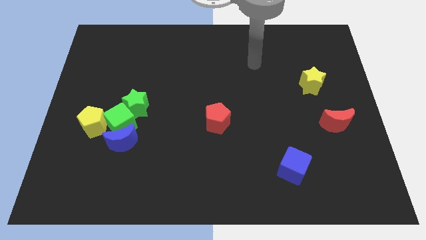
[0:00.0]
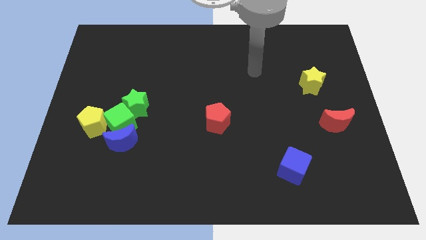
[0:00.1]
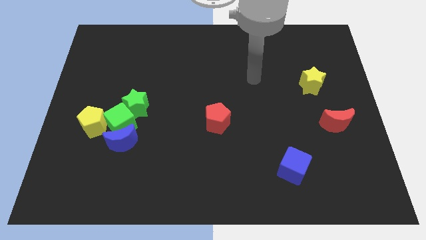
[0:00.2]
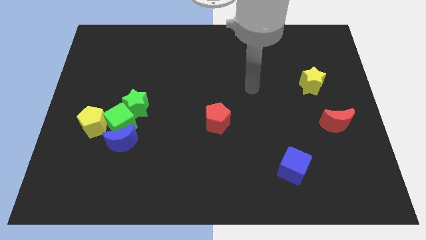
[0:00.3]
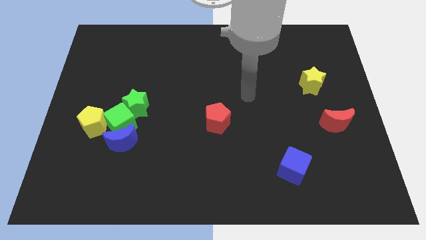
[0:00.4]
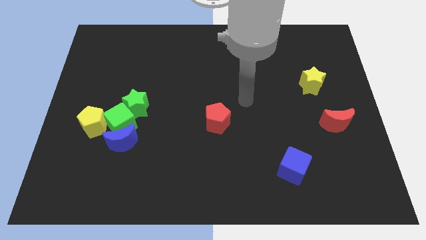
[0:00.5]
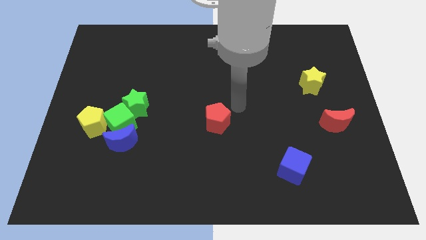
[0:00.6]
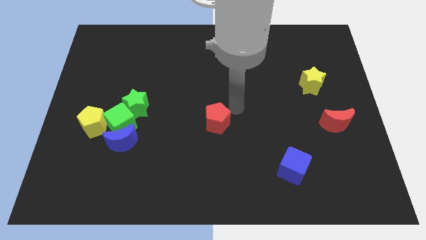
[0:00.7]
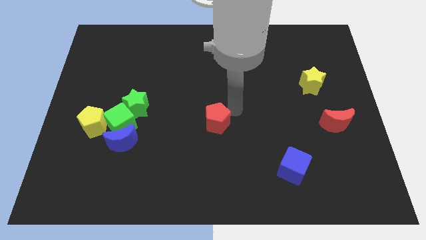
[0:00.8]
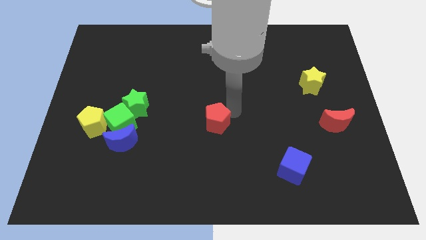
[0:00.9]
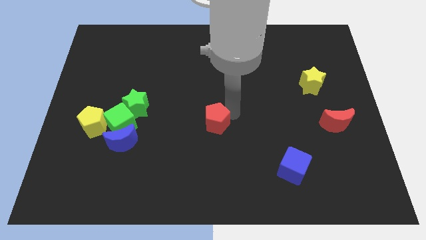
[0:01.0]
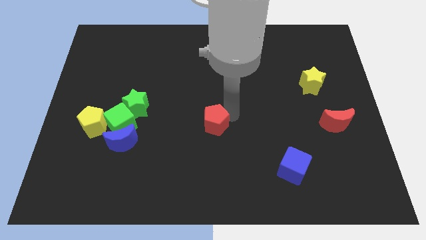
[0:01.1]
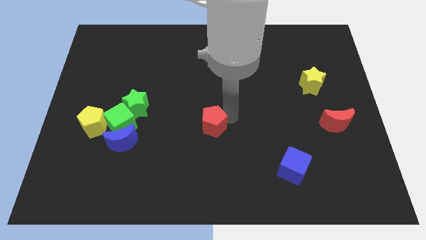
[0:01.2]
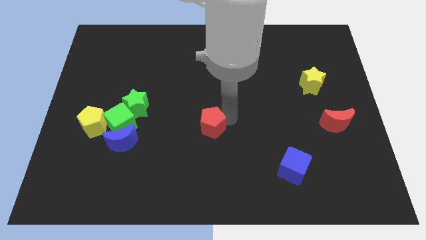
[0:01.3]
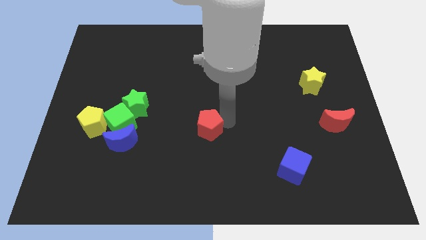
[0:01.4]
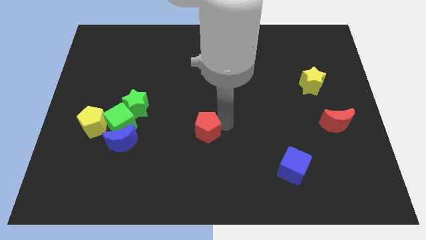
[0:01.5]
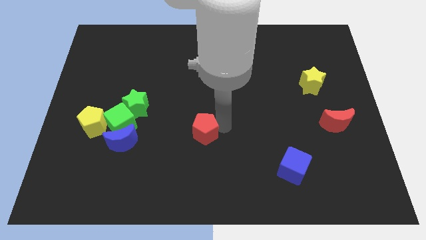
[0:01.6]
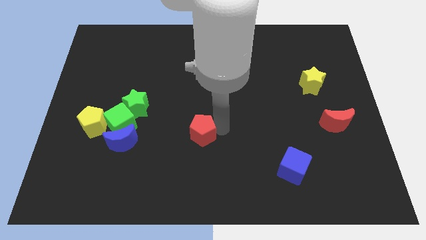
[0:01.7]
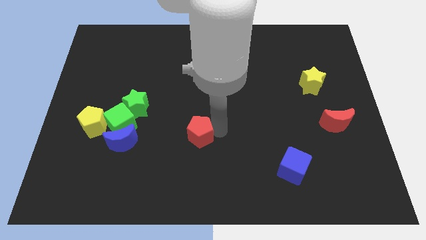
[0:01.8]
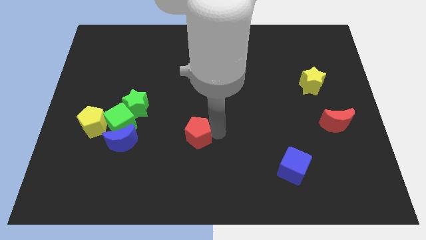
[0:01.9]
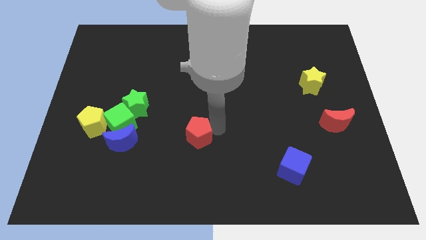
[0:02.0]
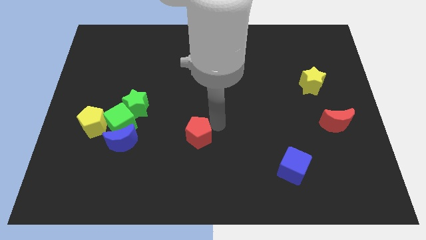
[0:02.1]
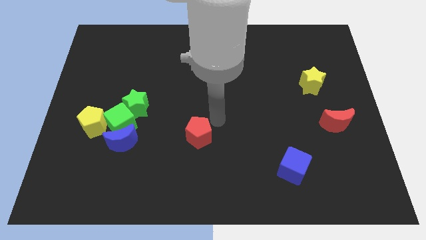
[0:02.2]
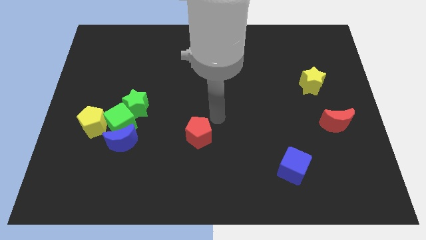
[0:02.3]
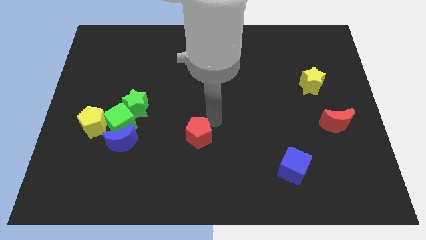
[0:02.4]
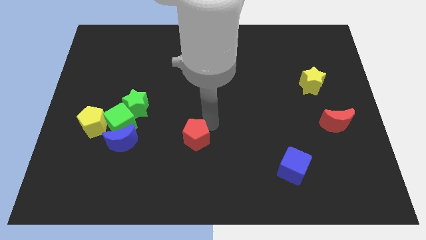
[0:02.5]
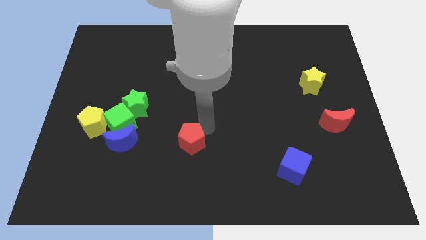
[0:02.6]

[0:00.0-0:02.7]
move the red pentagon somewhat downwards and left

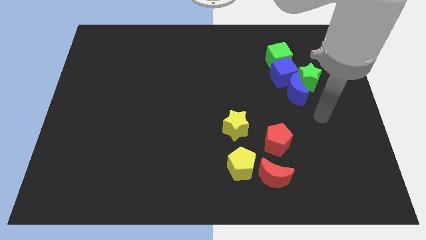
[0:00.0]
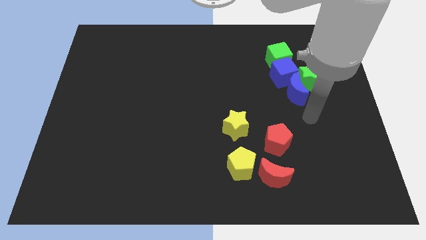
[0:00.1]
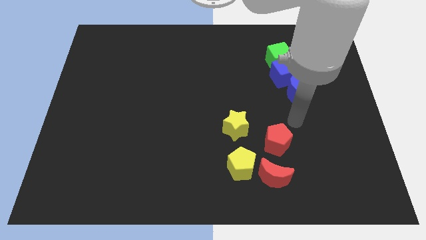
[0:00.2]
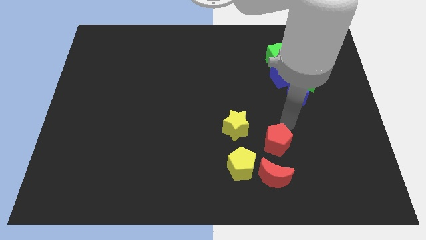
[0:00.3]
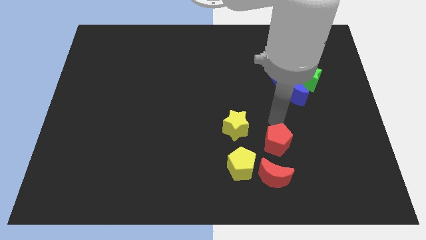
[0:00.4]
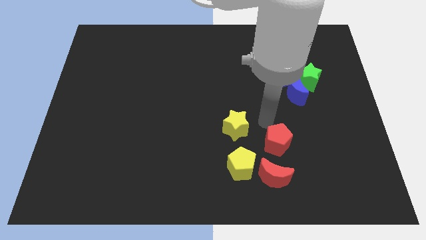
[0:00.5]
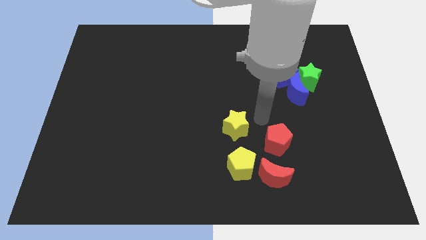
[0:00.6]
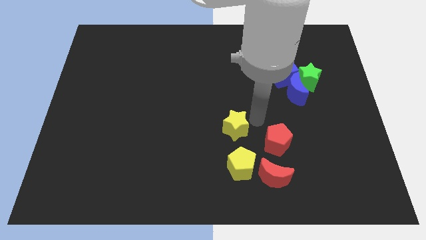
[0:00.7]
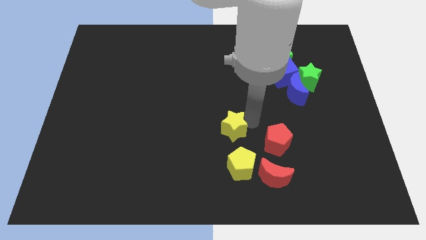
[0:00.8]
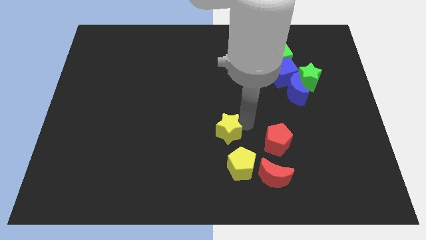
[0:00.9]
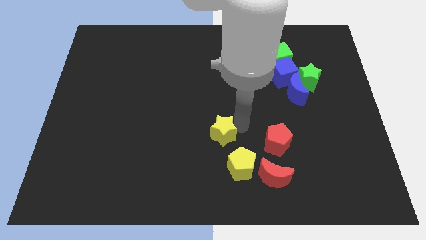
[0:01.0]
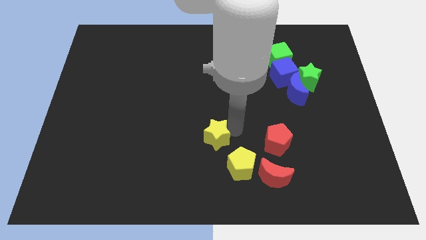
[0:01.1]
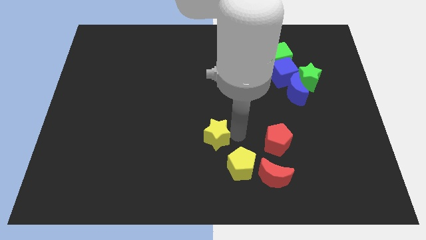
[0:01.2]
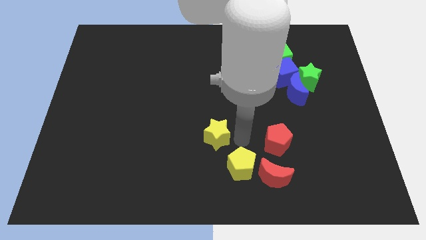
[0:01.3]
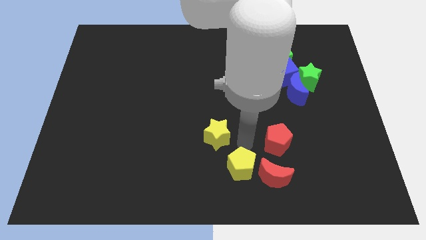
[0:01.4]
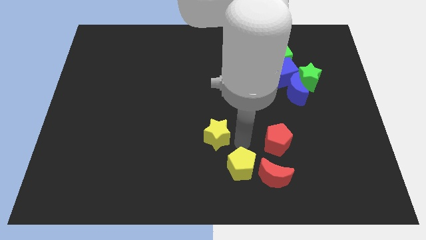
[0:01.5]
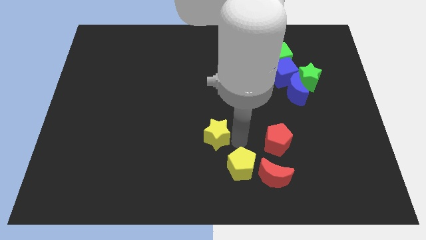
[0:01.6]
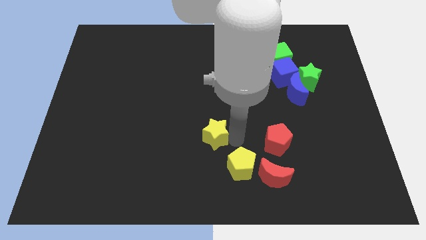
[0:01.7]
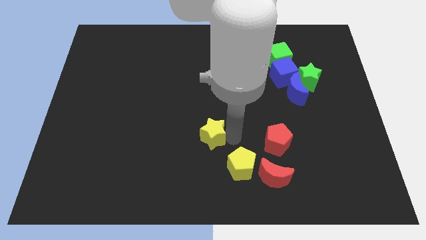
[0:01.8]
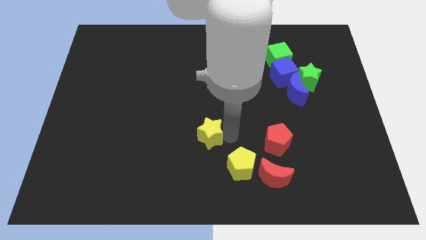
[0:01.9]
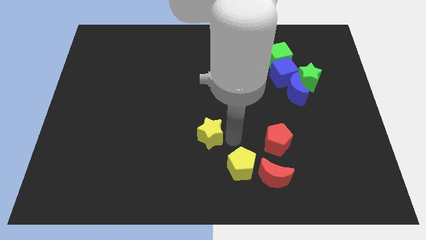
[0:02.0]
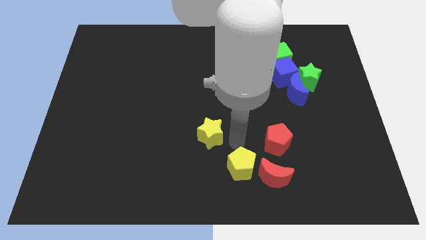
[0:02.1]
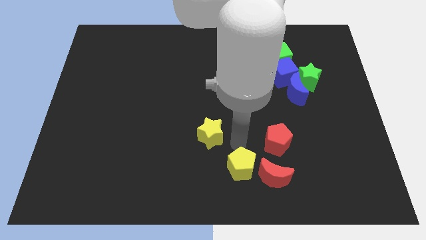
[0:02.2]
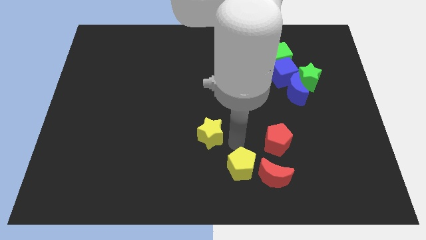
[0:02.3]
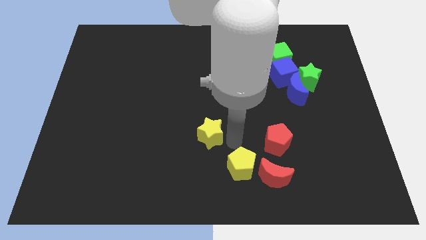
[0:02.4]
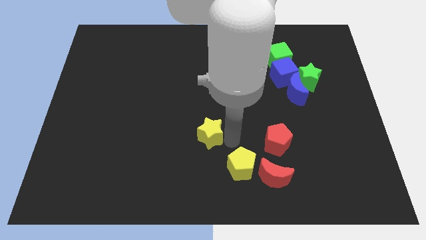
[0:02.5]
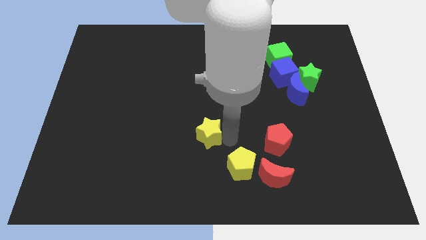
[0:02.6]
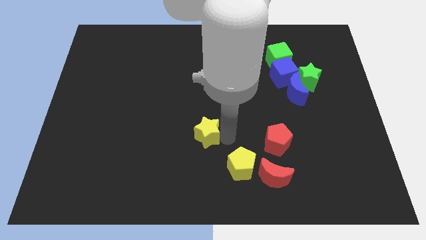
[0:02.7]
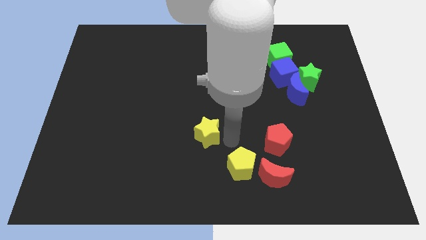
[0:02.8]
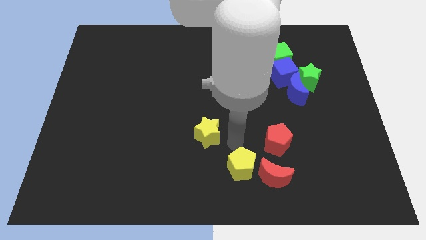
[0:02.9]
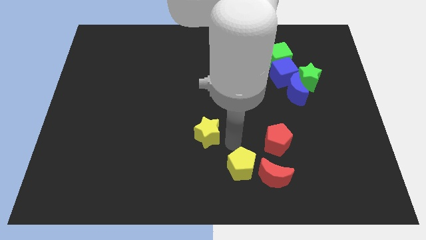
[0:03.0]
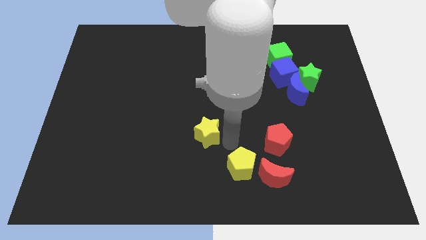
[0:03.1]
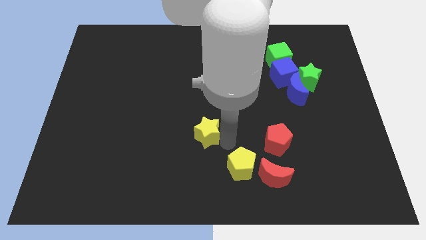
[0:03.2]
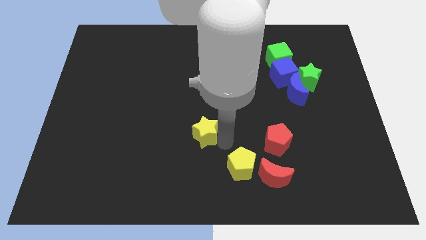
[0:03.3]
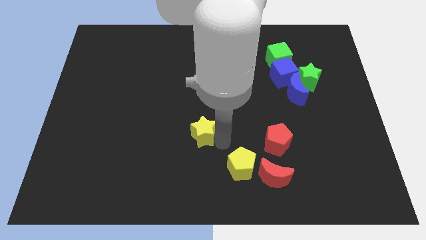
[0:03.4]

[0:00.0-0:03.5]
slightly move the yellow star left

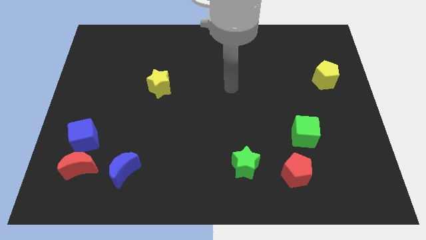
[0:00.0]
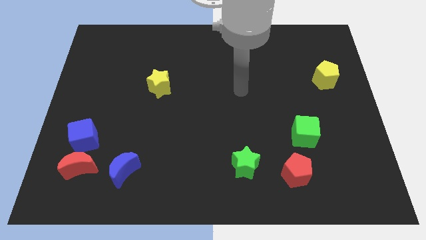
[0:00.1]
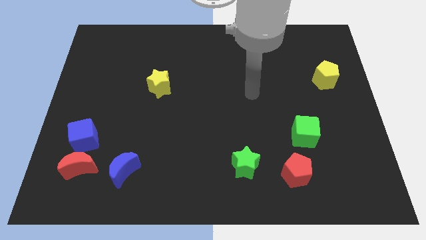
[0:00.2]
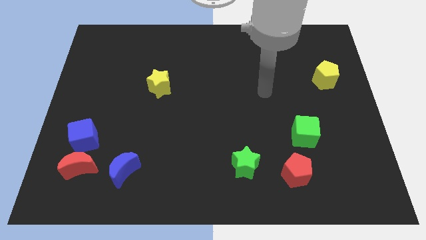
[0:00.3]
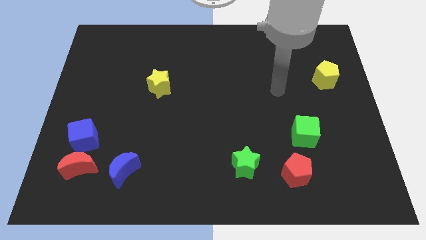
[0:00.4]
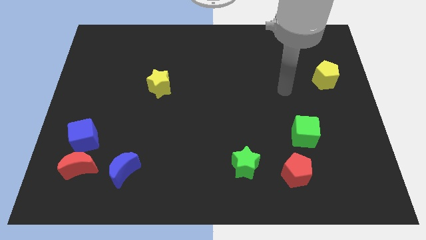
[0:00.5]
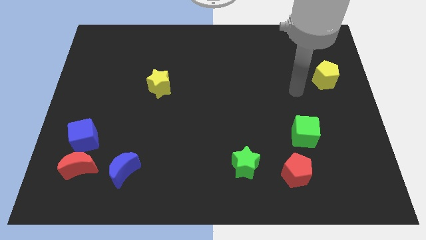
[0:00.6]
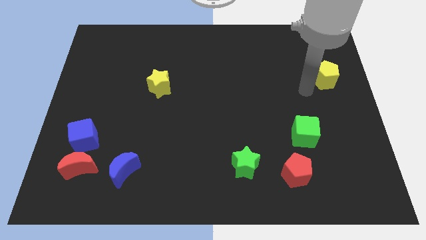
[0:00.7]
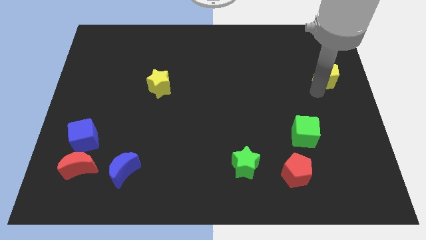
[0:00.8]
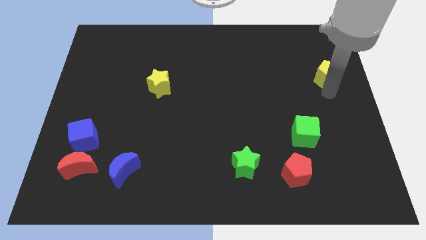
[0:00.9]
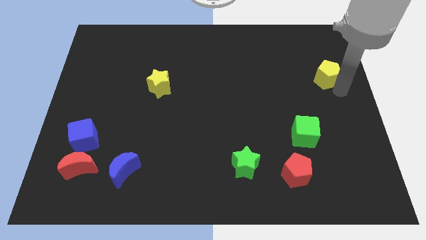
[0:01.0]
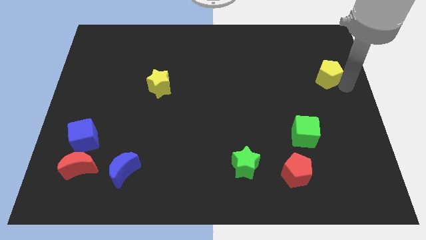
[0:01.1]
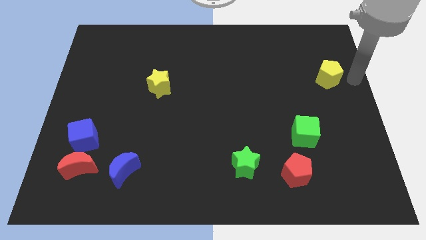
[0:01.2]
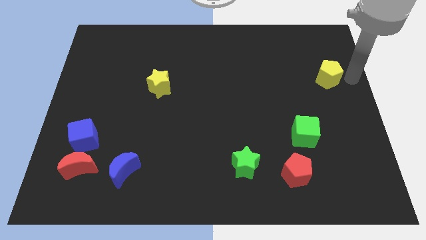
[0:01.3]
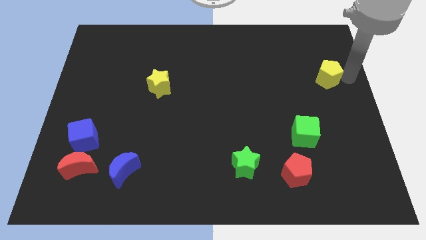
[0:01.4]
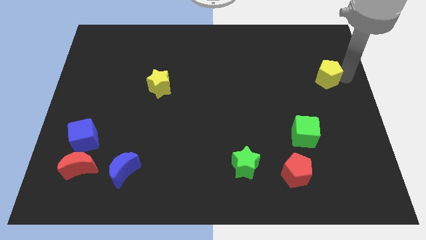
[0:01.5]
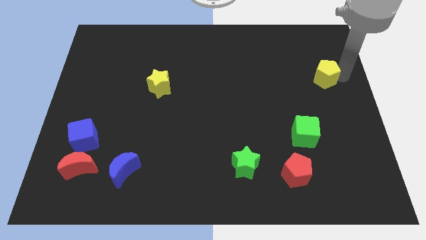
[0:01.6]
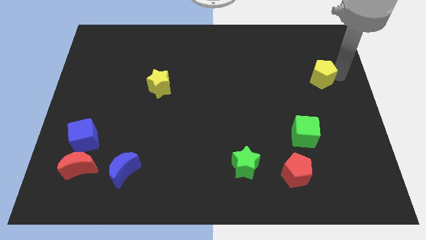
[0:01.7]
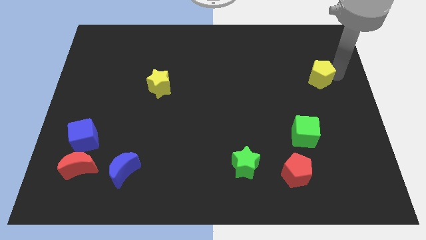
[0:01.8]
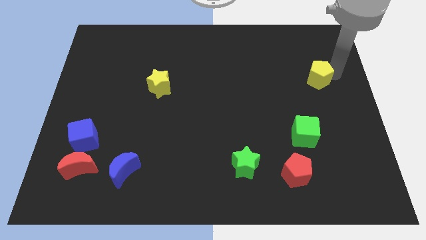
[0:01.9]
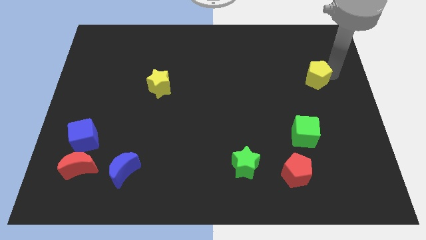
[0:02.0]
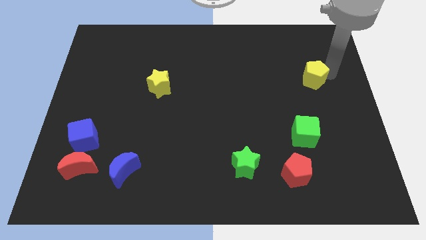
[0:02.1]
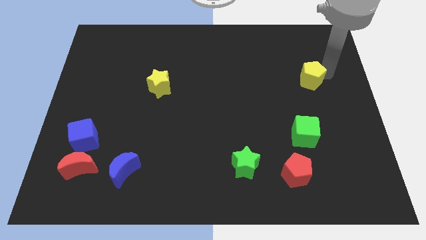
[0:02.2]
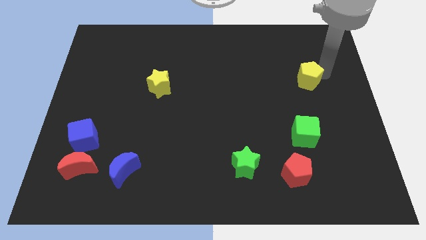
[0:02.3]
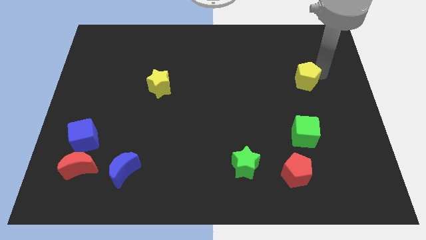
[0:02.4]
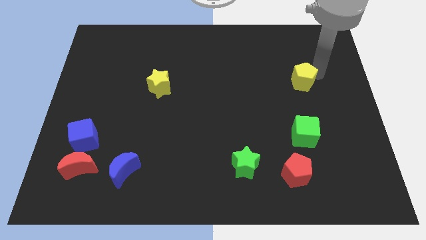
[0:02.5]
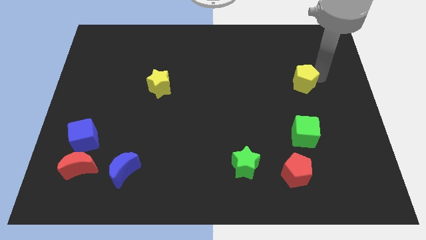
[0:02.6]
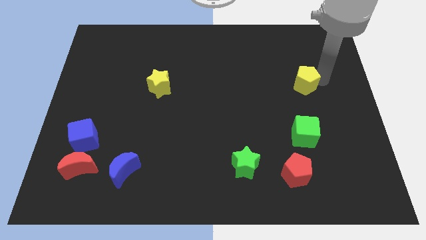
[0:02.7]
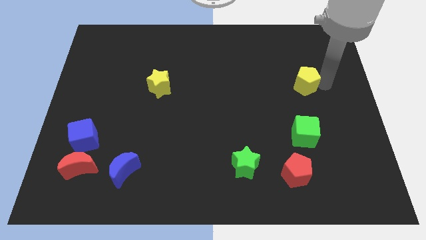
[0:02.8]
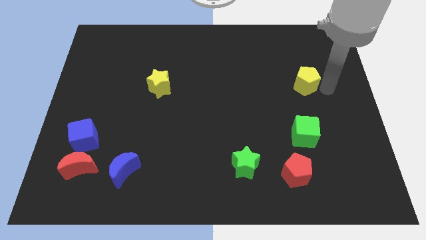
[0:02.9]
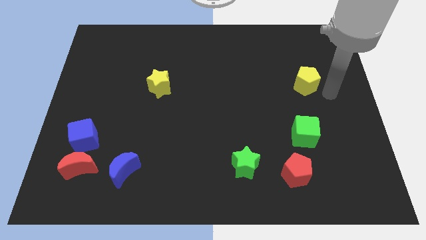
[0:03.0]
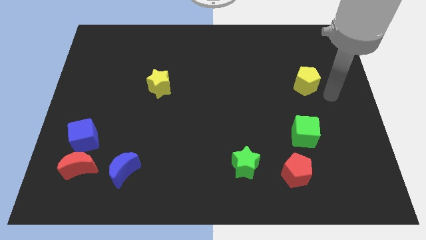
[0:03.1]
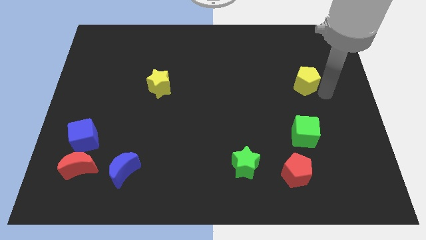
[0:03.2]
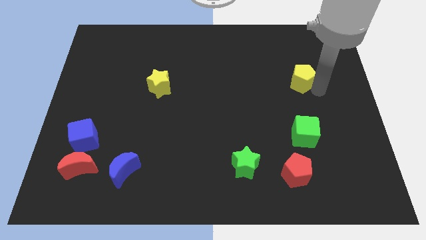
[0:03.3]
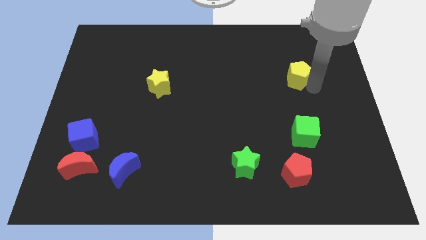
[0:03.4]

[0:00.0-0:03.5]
slightly slide the yellow pentagon to the left
